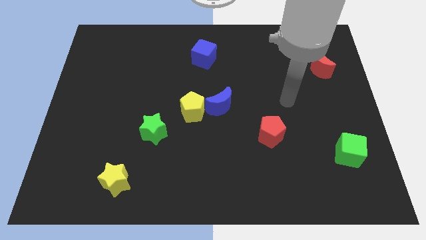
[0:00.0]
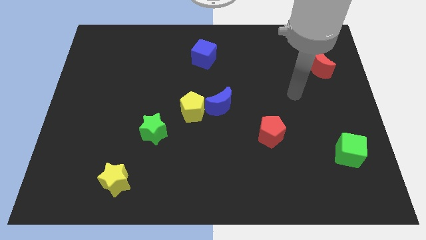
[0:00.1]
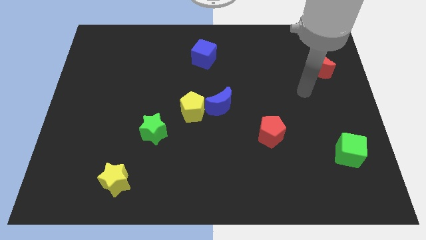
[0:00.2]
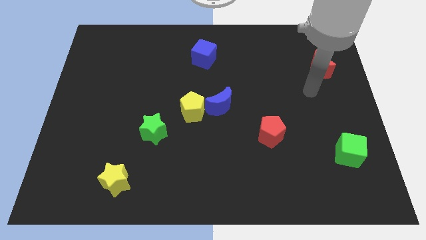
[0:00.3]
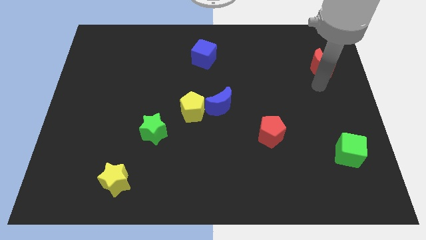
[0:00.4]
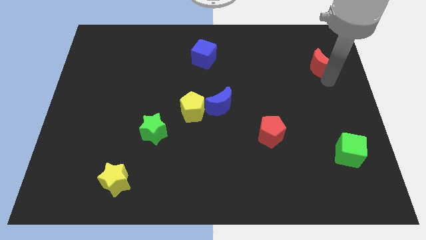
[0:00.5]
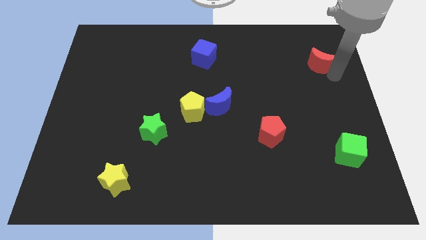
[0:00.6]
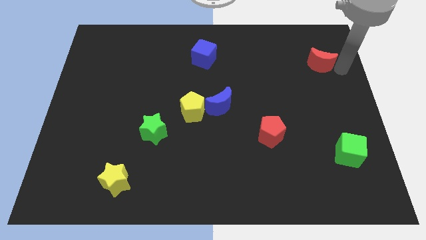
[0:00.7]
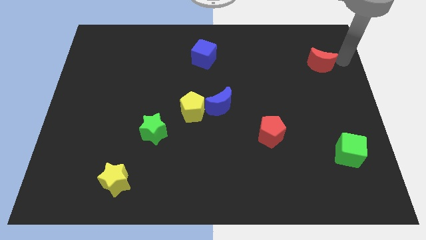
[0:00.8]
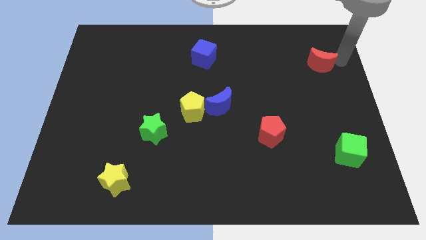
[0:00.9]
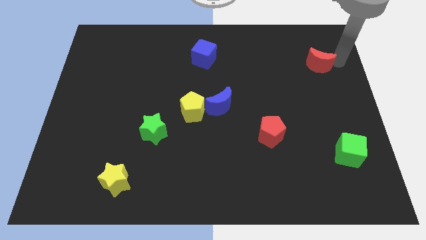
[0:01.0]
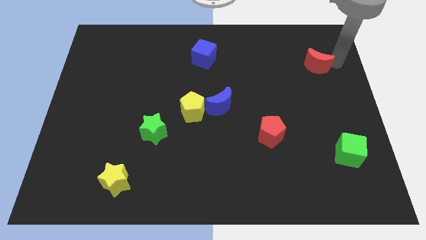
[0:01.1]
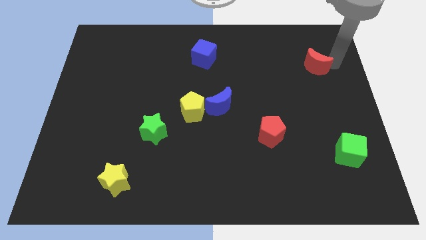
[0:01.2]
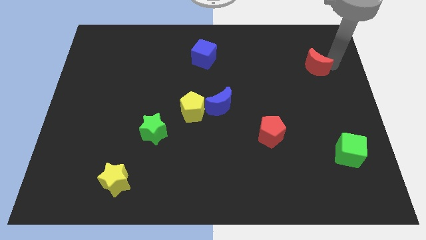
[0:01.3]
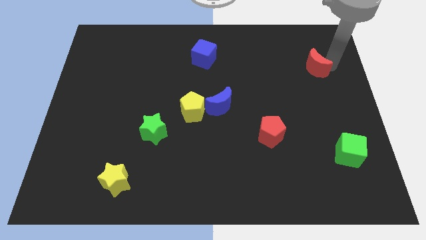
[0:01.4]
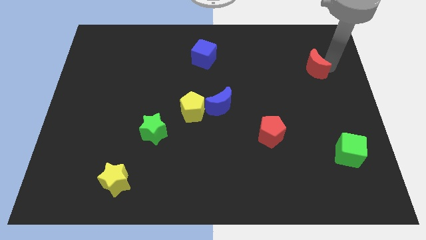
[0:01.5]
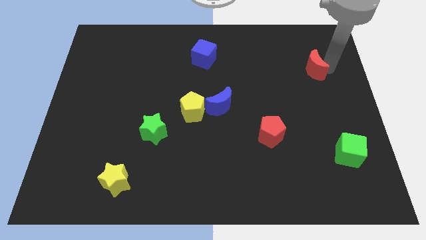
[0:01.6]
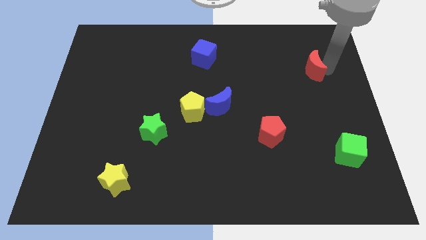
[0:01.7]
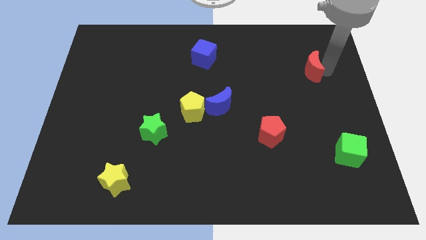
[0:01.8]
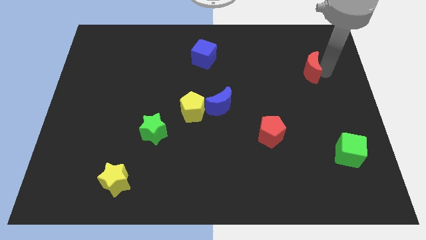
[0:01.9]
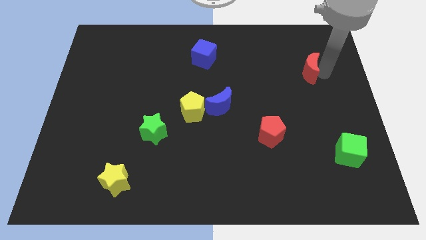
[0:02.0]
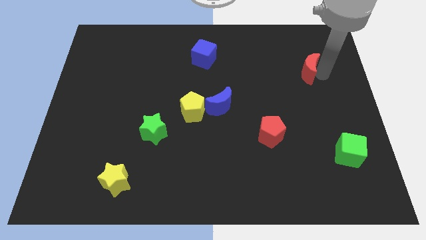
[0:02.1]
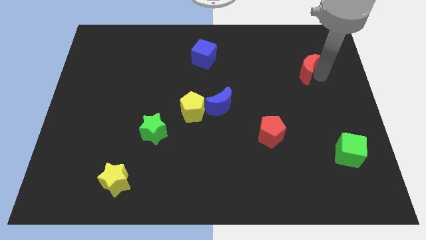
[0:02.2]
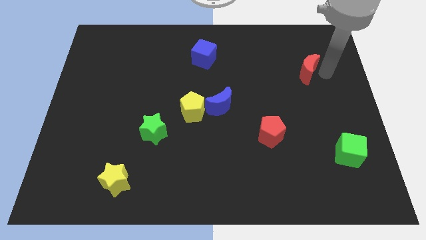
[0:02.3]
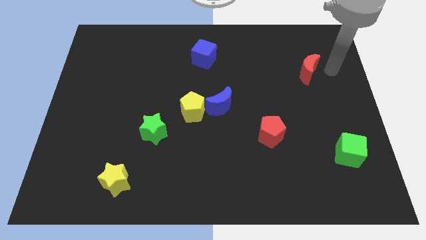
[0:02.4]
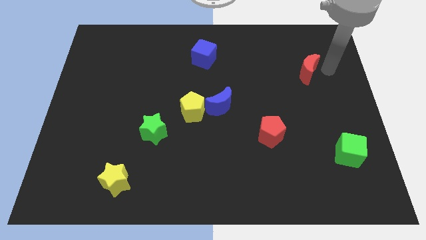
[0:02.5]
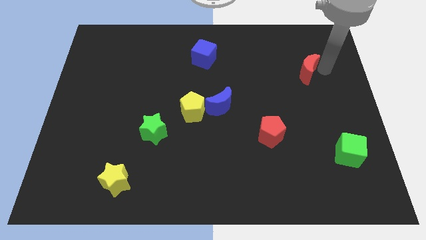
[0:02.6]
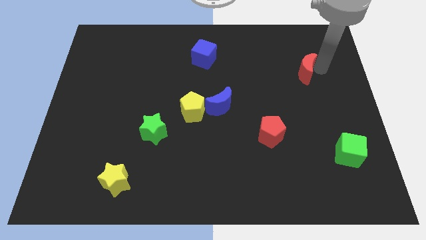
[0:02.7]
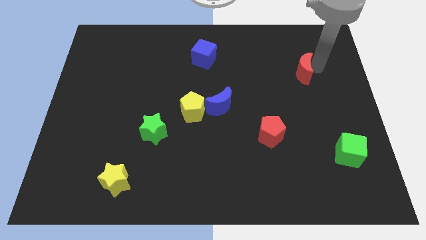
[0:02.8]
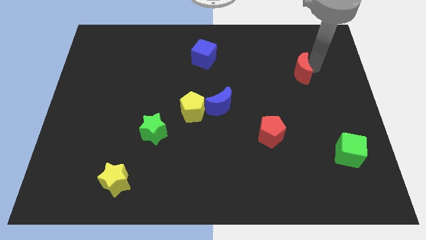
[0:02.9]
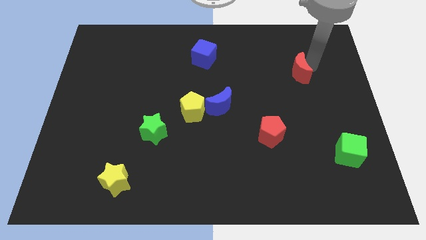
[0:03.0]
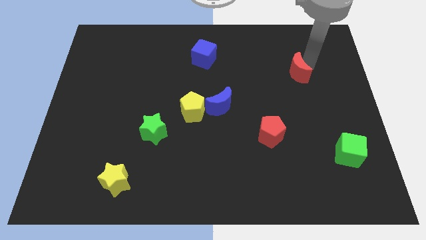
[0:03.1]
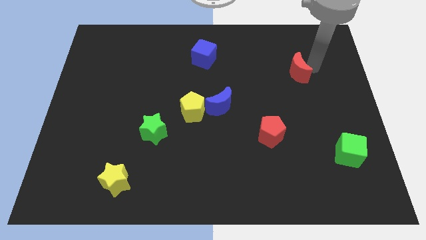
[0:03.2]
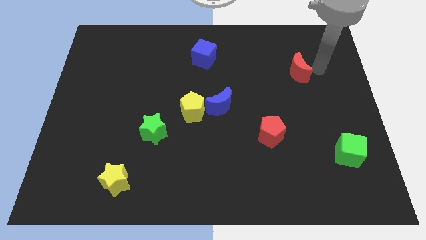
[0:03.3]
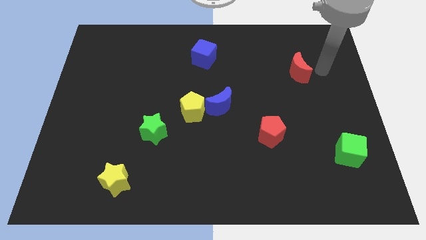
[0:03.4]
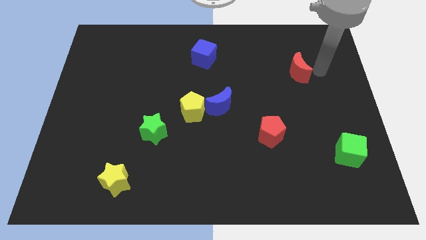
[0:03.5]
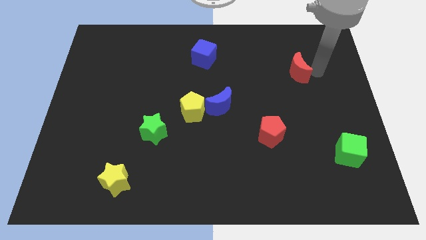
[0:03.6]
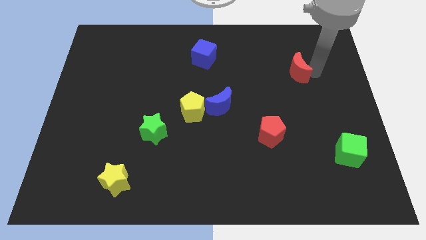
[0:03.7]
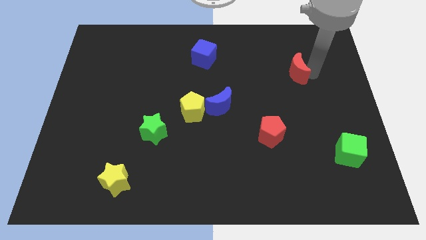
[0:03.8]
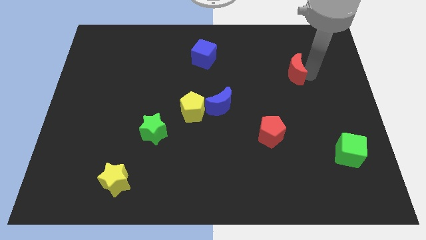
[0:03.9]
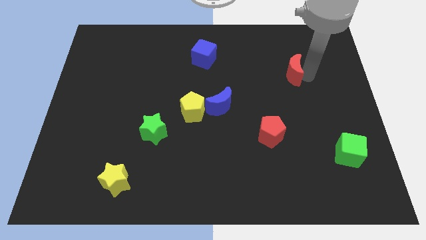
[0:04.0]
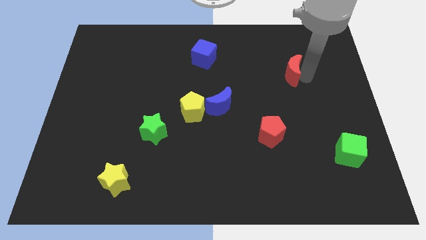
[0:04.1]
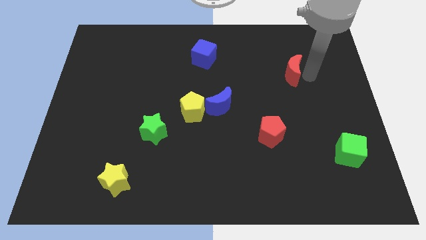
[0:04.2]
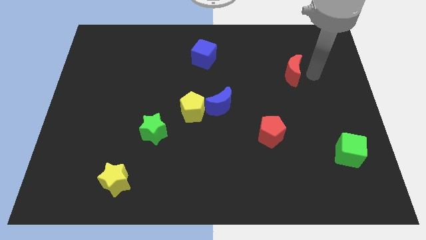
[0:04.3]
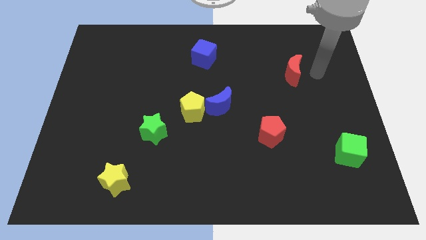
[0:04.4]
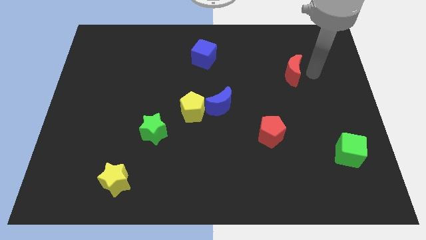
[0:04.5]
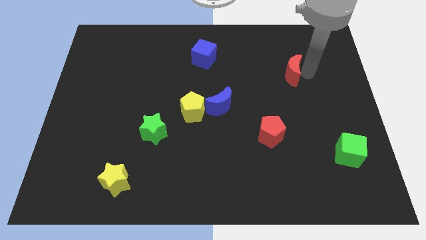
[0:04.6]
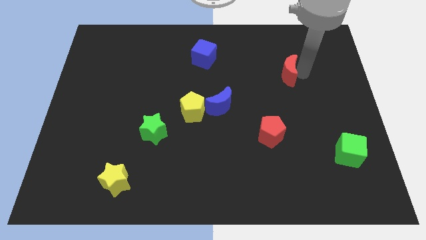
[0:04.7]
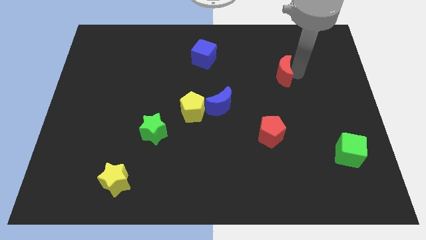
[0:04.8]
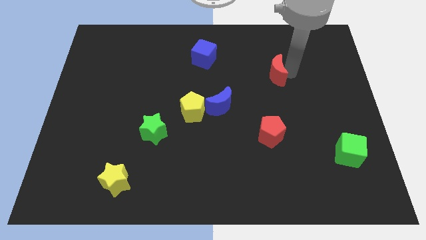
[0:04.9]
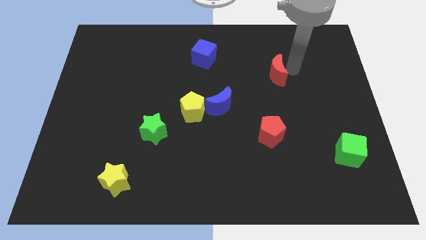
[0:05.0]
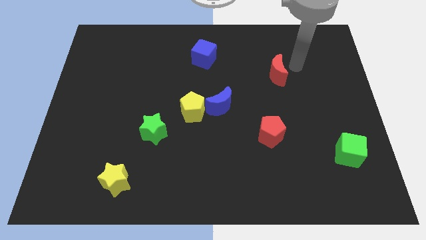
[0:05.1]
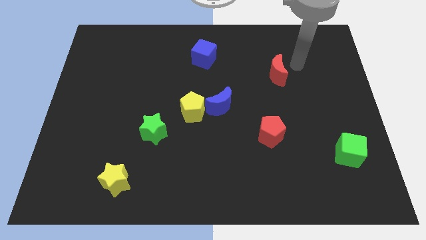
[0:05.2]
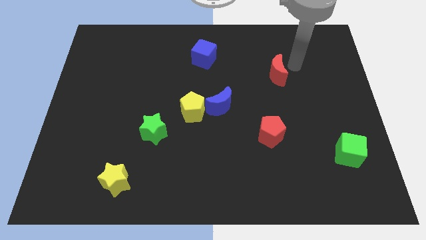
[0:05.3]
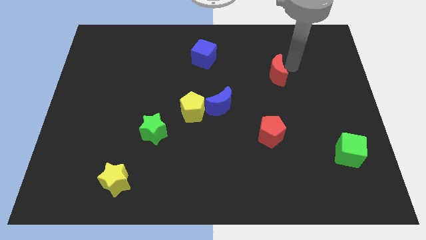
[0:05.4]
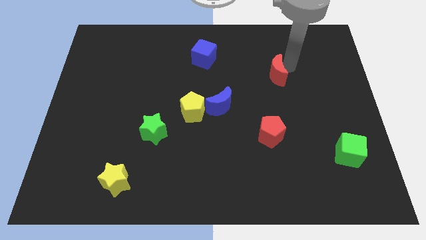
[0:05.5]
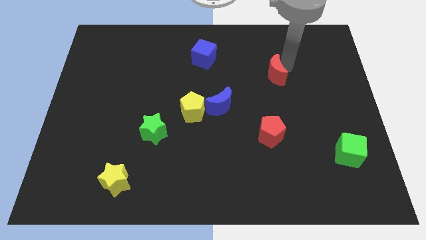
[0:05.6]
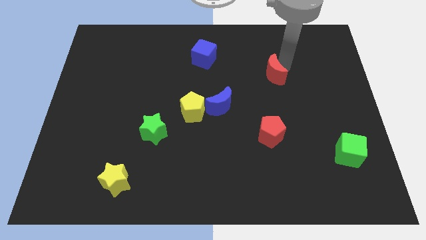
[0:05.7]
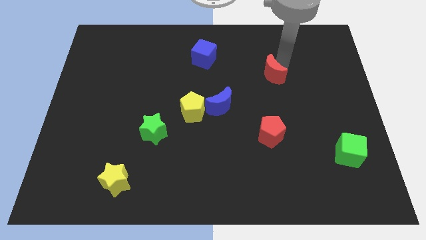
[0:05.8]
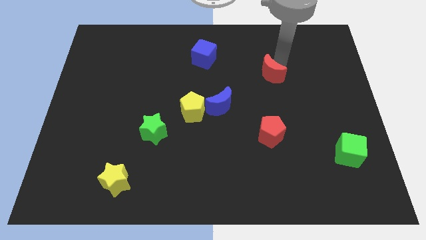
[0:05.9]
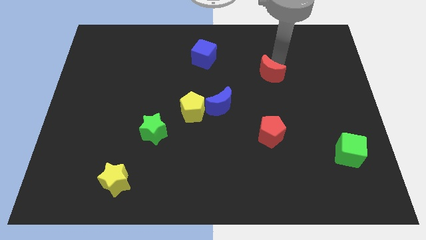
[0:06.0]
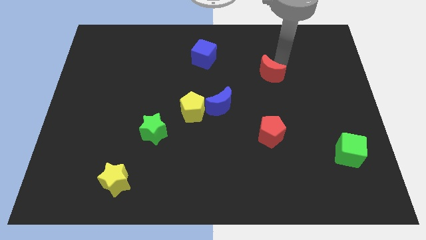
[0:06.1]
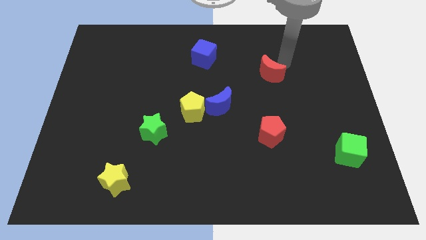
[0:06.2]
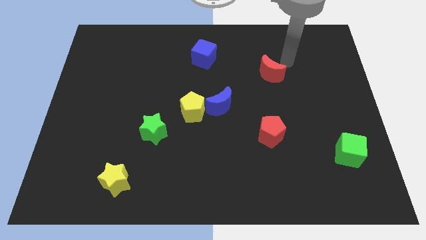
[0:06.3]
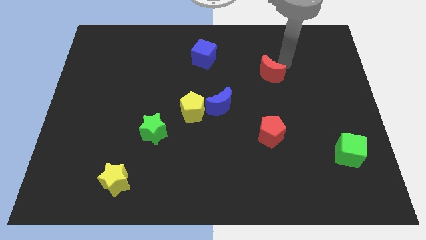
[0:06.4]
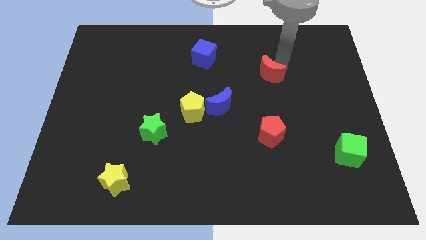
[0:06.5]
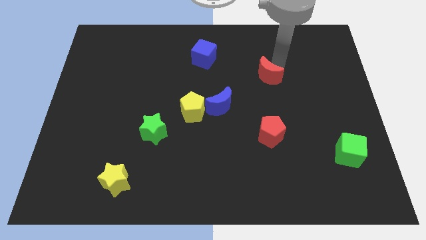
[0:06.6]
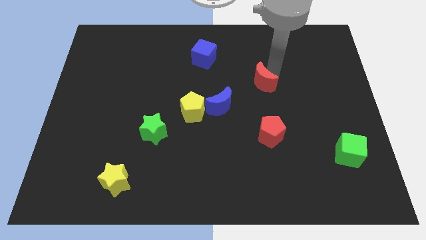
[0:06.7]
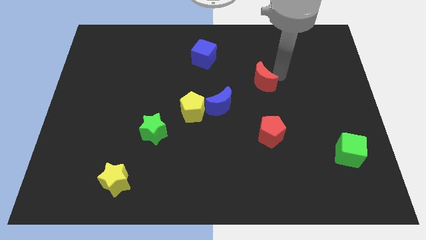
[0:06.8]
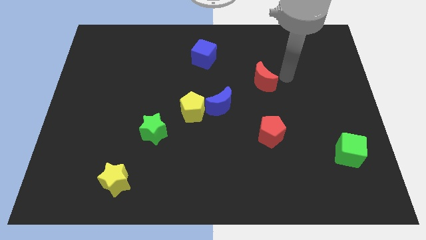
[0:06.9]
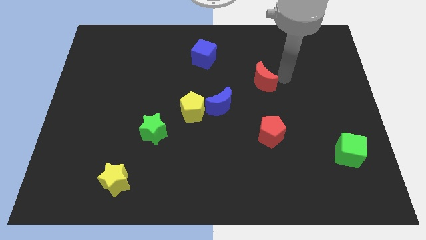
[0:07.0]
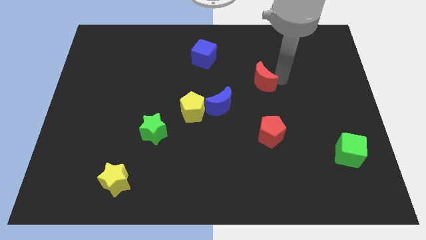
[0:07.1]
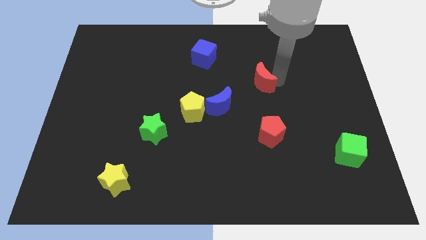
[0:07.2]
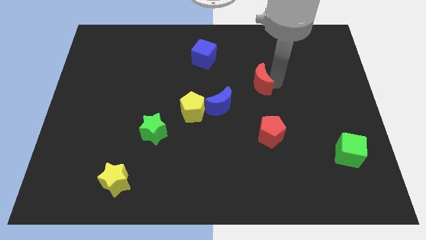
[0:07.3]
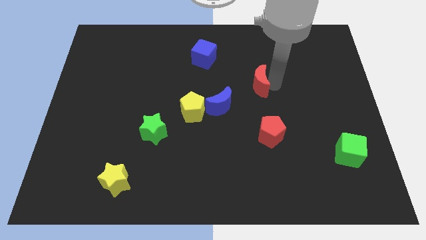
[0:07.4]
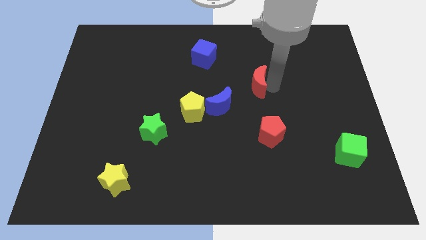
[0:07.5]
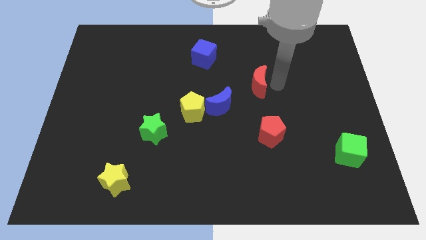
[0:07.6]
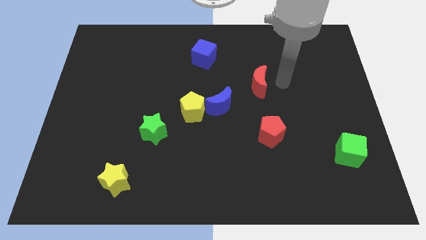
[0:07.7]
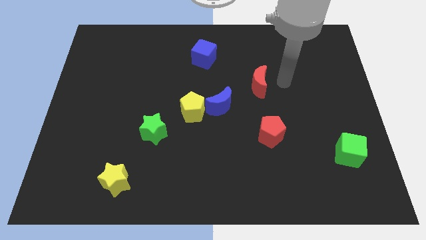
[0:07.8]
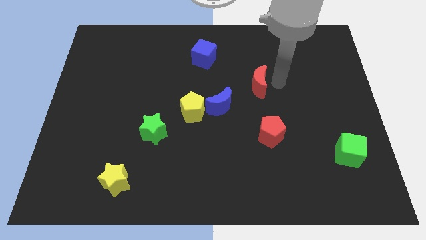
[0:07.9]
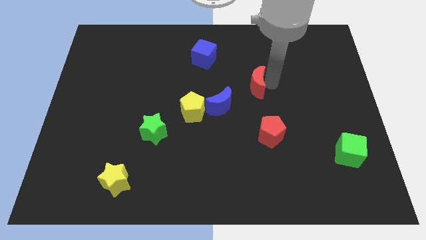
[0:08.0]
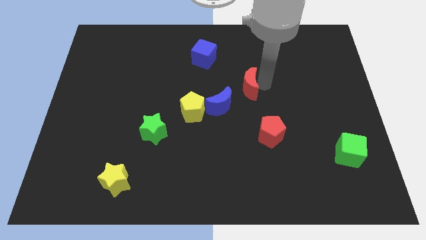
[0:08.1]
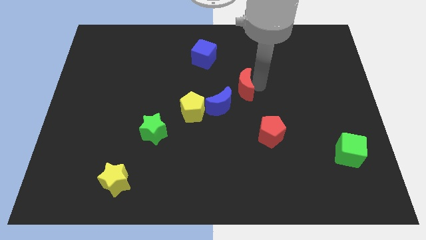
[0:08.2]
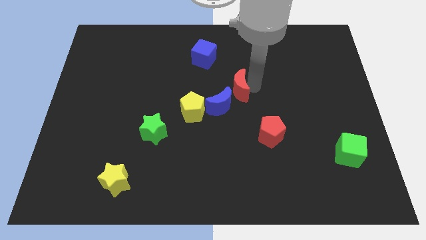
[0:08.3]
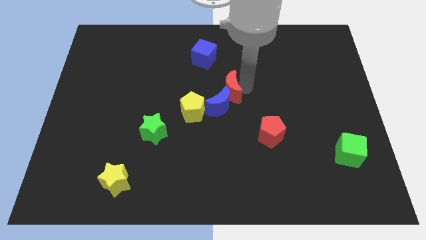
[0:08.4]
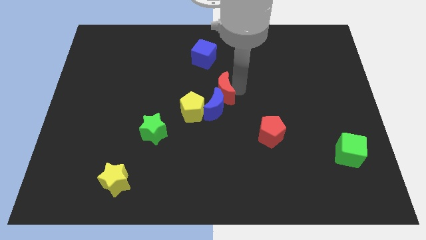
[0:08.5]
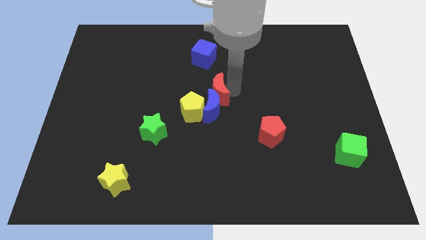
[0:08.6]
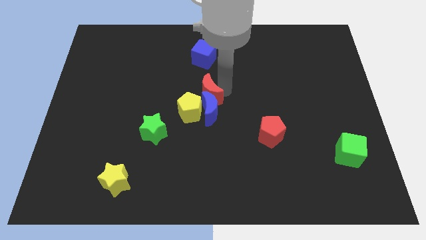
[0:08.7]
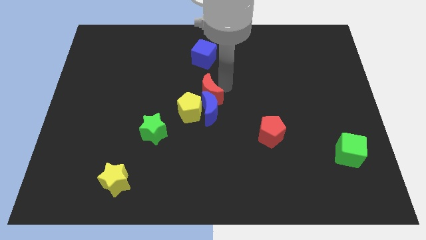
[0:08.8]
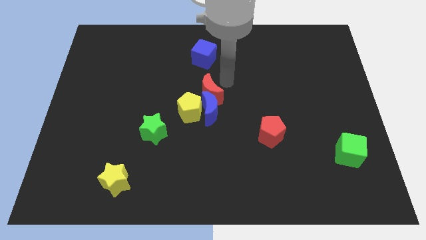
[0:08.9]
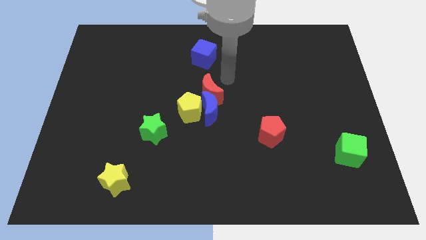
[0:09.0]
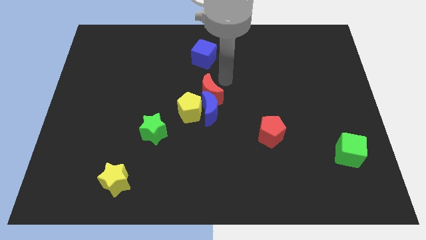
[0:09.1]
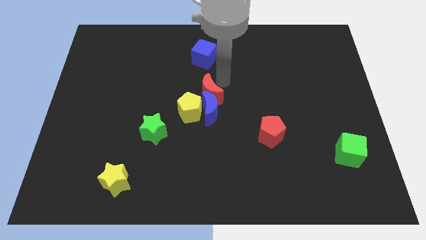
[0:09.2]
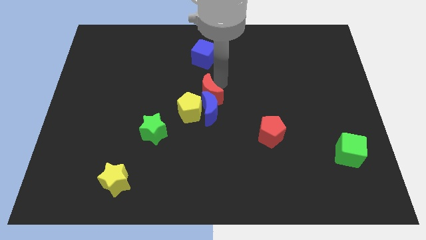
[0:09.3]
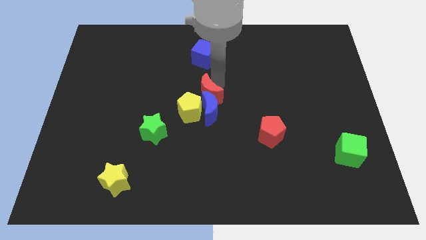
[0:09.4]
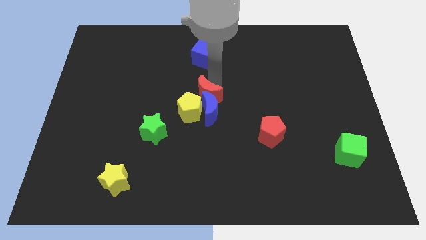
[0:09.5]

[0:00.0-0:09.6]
push the red moon close to the yellow pentagon
